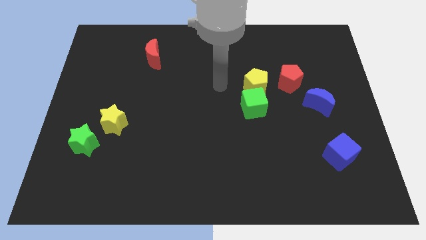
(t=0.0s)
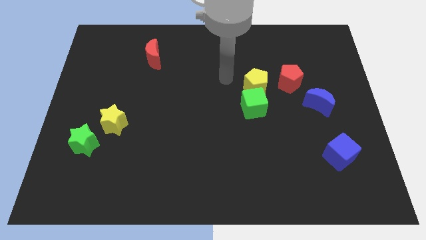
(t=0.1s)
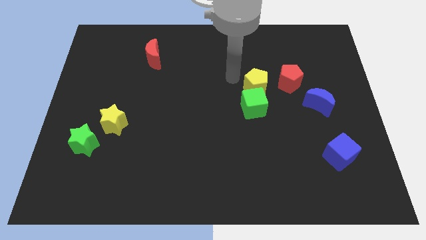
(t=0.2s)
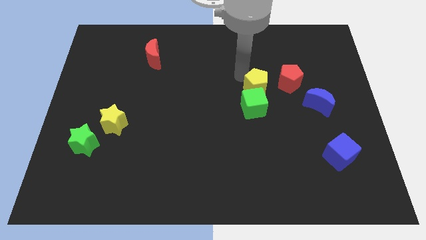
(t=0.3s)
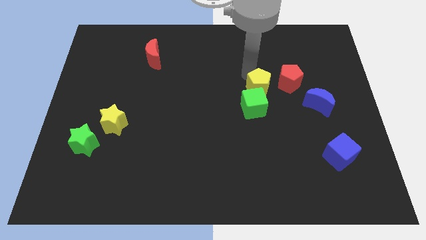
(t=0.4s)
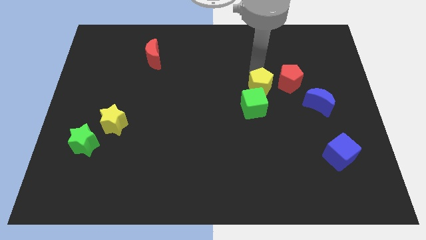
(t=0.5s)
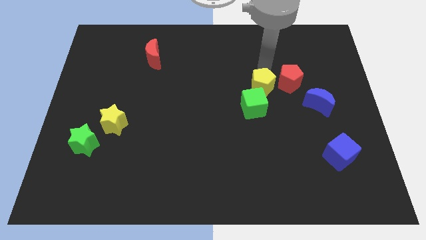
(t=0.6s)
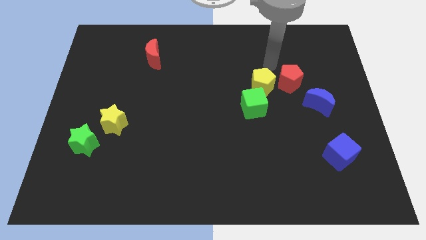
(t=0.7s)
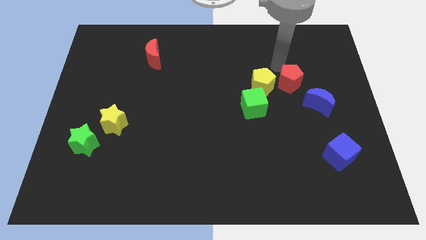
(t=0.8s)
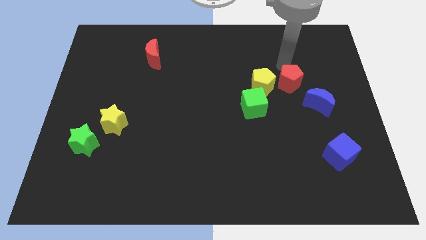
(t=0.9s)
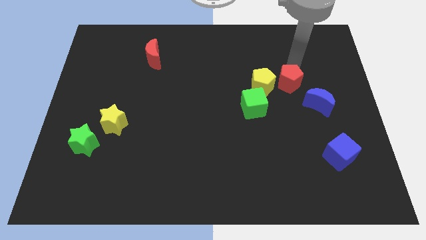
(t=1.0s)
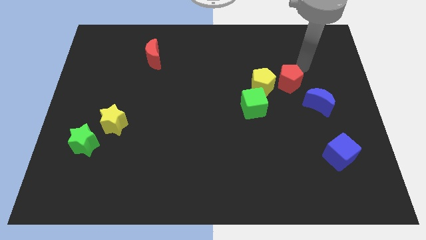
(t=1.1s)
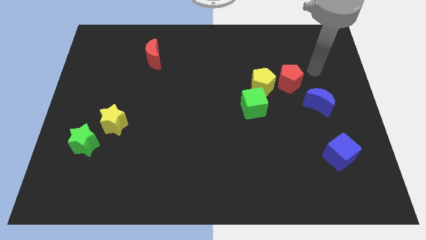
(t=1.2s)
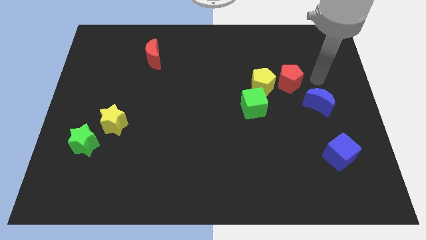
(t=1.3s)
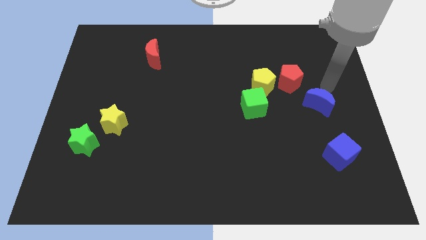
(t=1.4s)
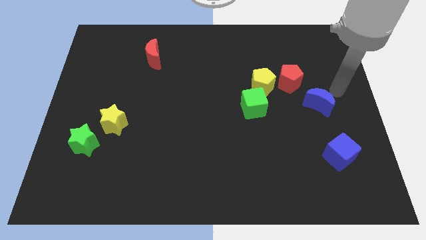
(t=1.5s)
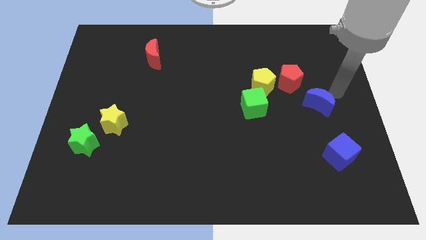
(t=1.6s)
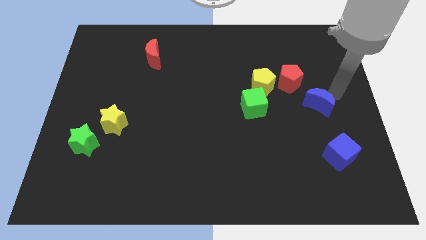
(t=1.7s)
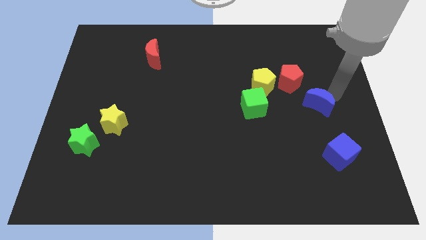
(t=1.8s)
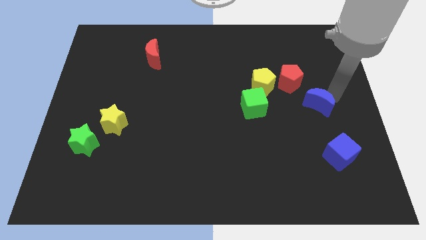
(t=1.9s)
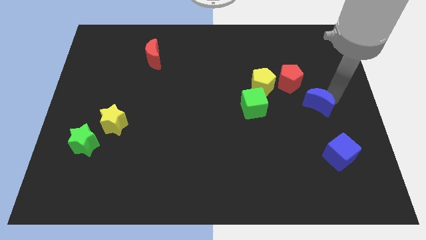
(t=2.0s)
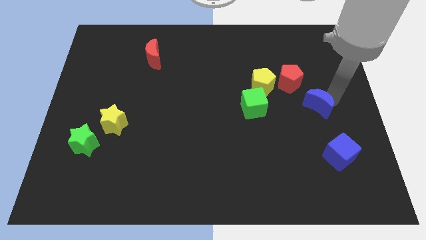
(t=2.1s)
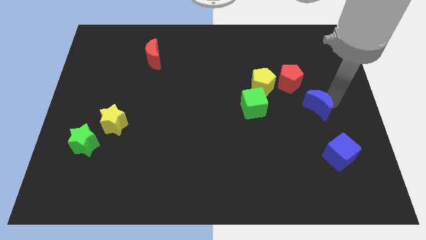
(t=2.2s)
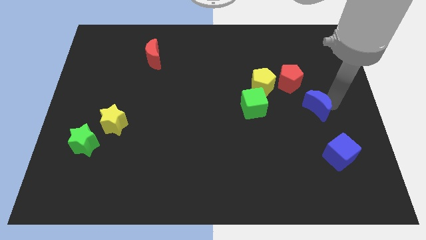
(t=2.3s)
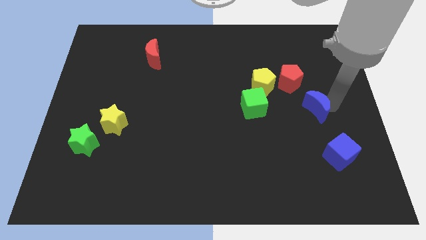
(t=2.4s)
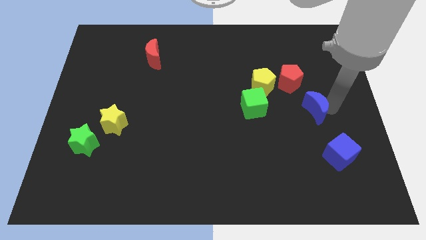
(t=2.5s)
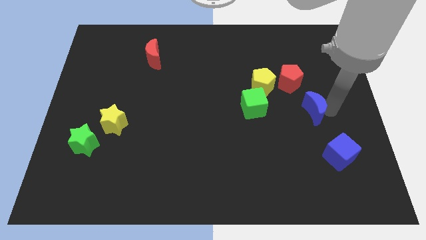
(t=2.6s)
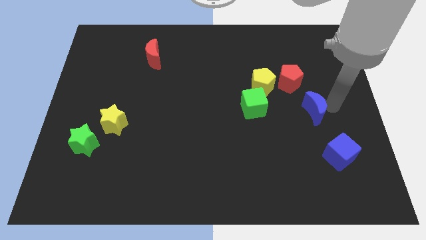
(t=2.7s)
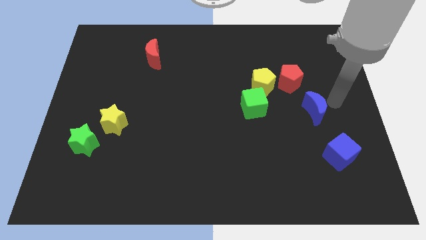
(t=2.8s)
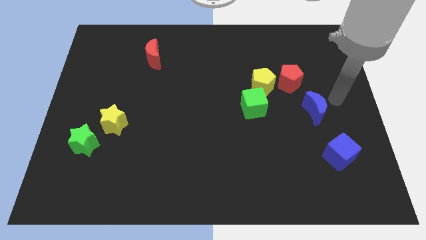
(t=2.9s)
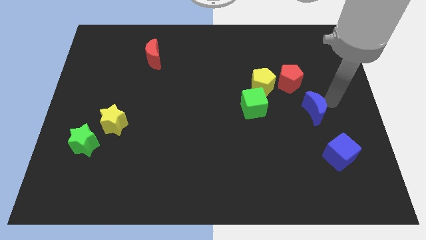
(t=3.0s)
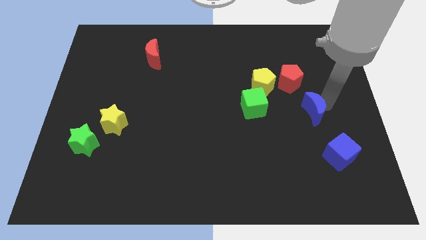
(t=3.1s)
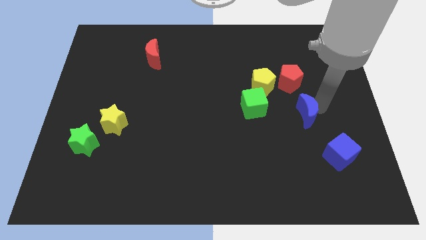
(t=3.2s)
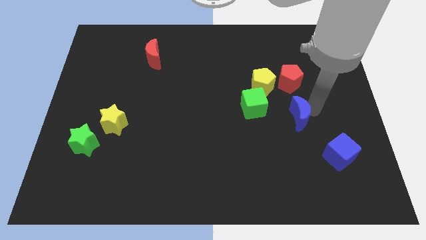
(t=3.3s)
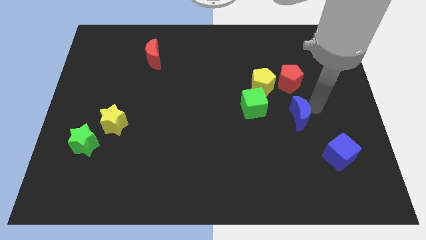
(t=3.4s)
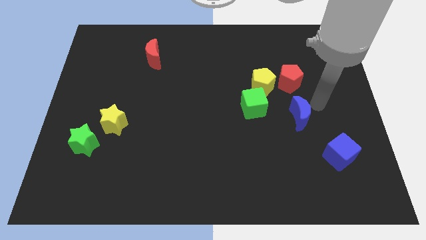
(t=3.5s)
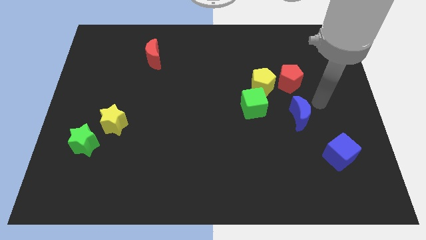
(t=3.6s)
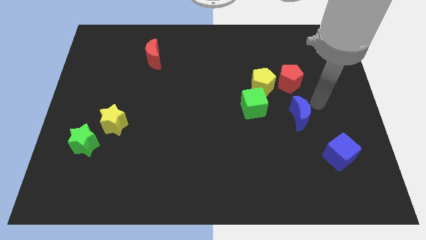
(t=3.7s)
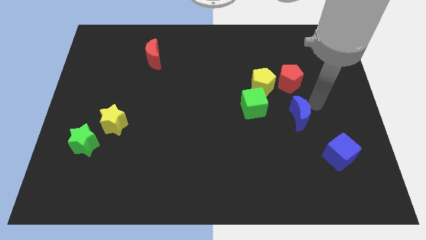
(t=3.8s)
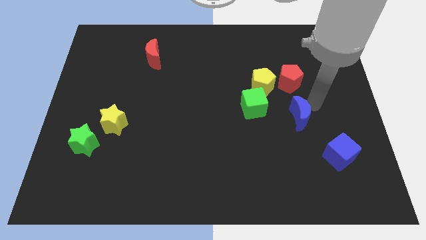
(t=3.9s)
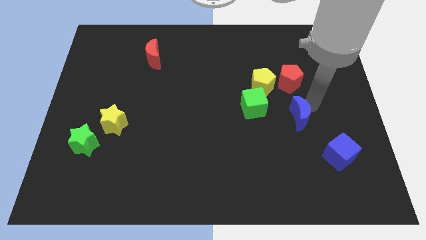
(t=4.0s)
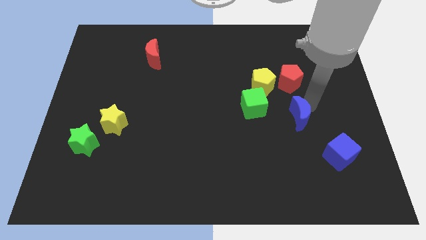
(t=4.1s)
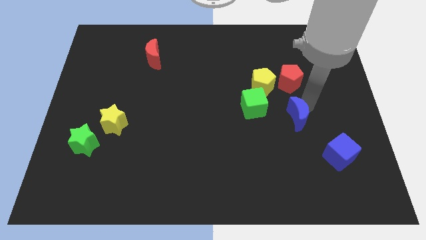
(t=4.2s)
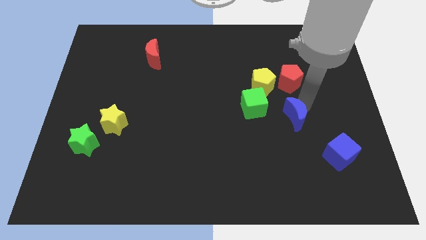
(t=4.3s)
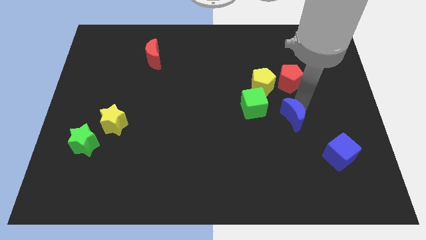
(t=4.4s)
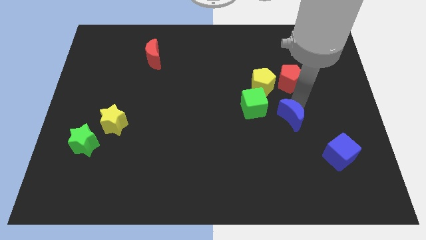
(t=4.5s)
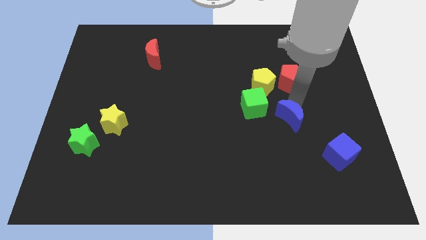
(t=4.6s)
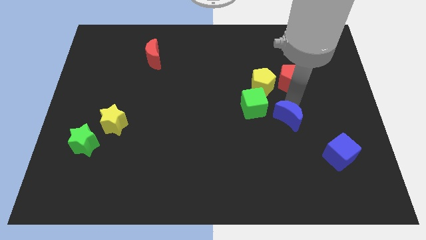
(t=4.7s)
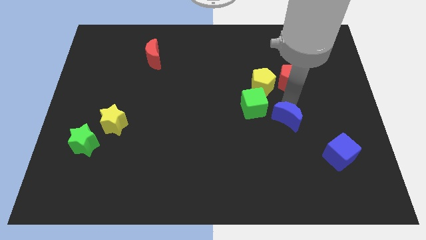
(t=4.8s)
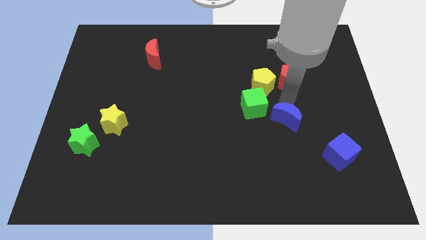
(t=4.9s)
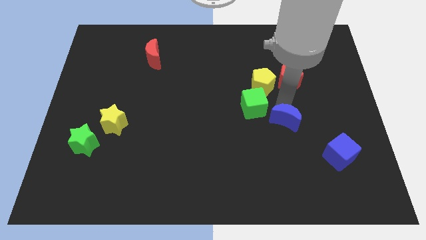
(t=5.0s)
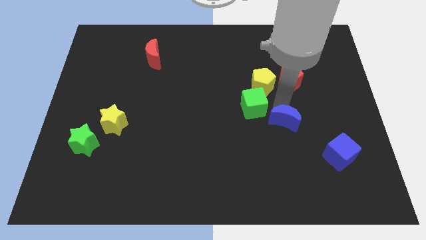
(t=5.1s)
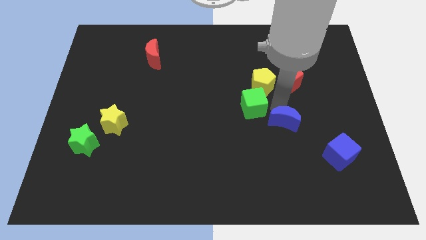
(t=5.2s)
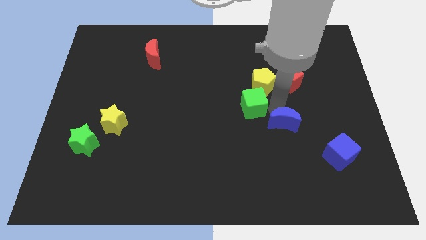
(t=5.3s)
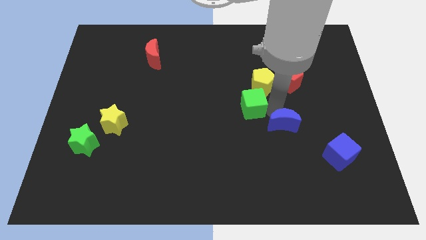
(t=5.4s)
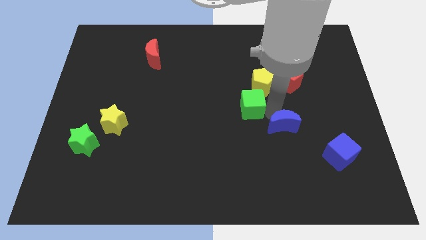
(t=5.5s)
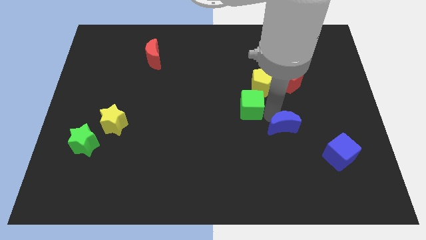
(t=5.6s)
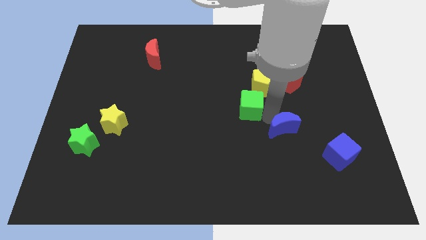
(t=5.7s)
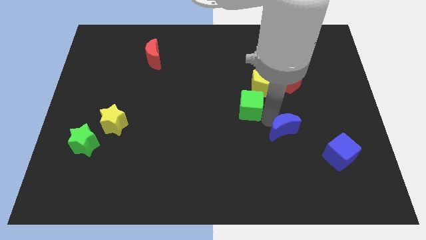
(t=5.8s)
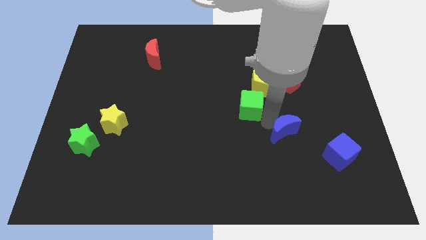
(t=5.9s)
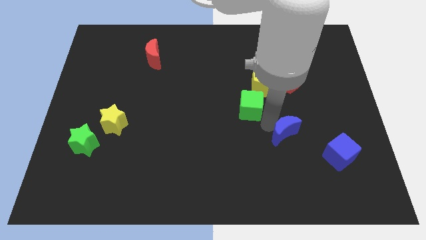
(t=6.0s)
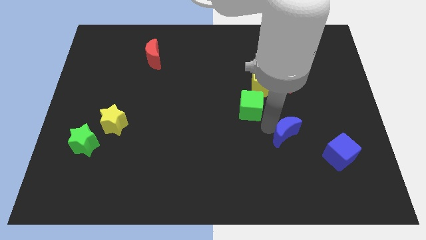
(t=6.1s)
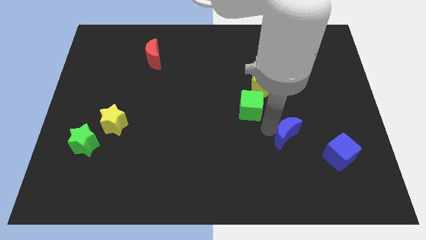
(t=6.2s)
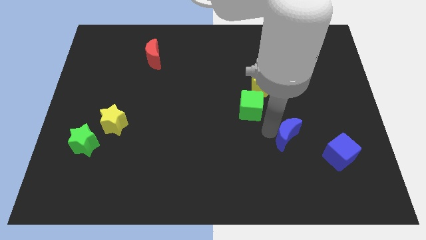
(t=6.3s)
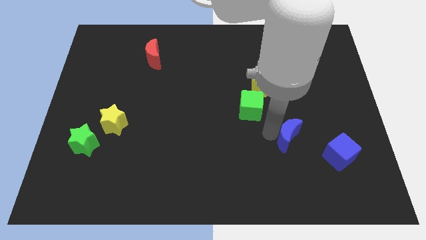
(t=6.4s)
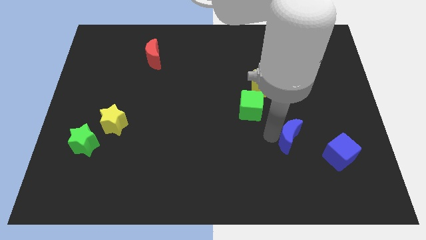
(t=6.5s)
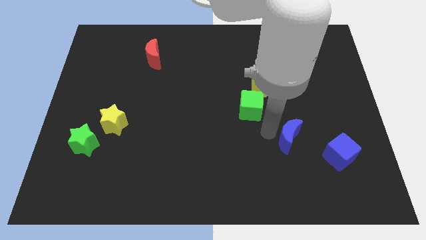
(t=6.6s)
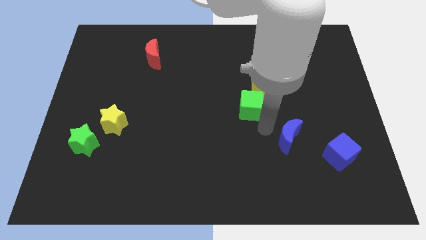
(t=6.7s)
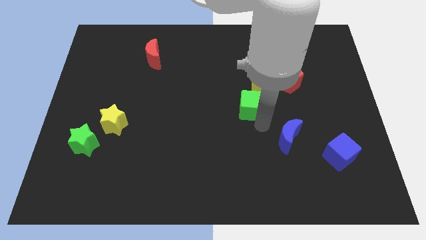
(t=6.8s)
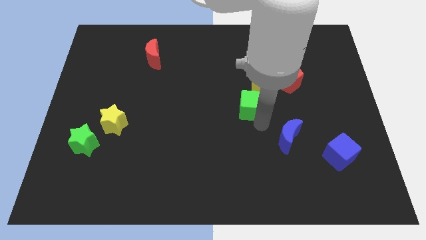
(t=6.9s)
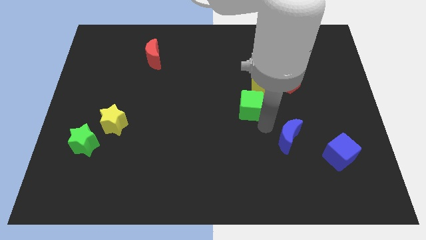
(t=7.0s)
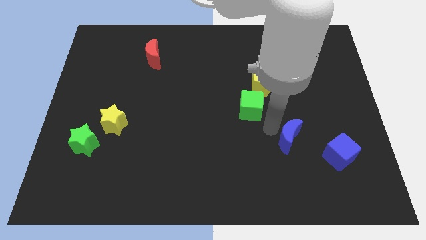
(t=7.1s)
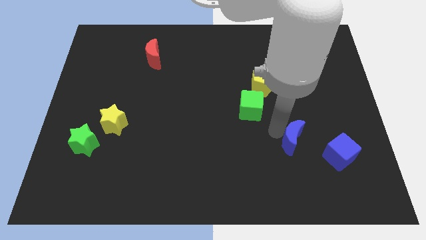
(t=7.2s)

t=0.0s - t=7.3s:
push the blue moon down a little bit

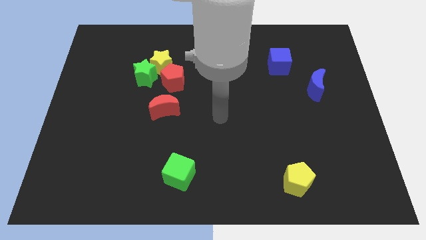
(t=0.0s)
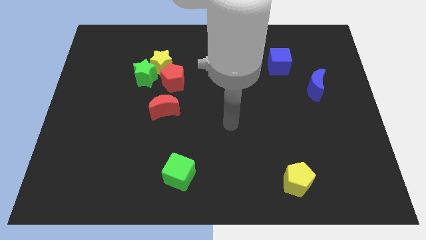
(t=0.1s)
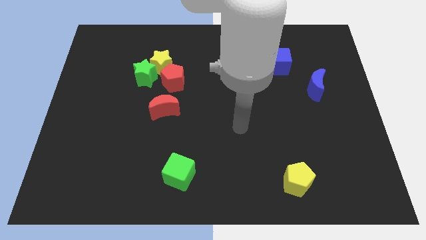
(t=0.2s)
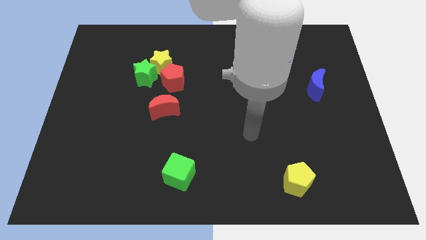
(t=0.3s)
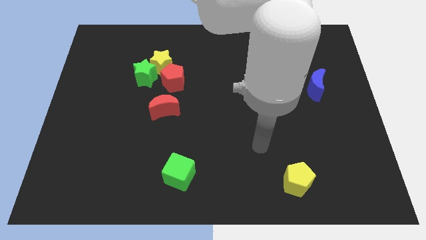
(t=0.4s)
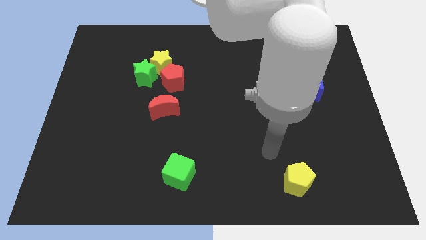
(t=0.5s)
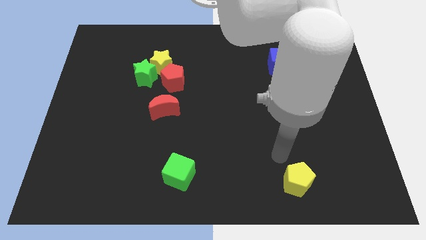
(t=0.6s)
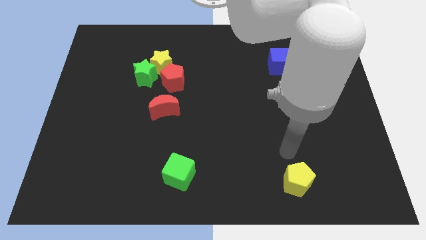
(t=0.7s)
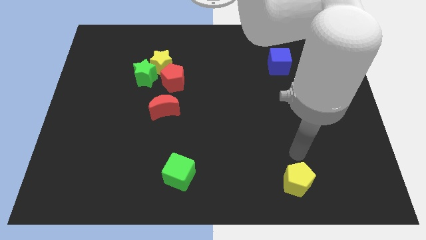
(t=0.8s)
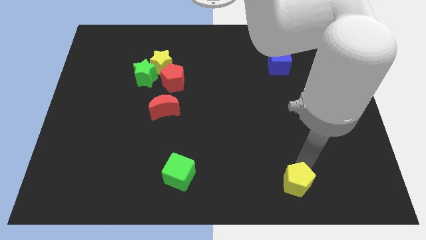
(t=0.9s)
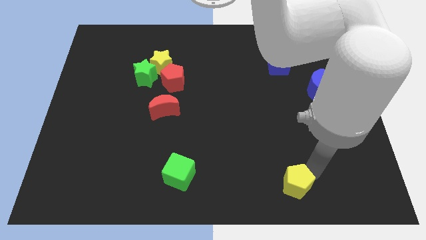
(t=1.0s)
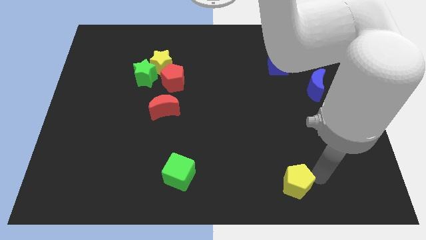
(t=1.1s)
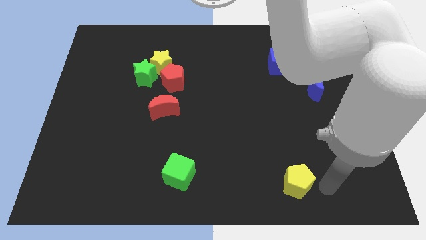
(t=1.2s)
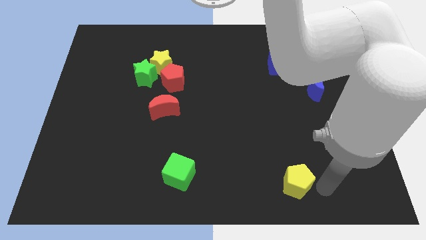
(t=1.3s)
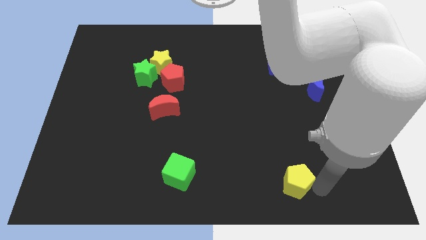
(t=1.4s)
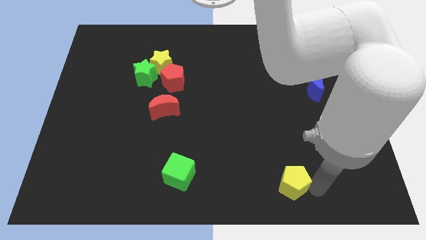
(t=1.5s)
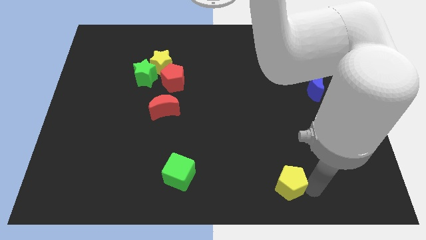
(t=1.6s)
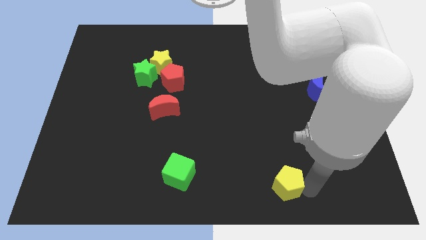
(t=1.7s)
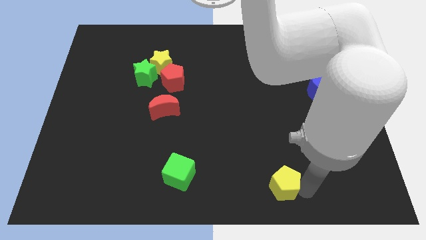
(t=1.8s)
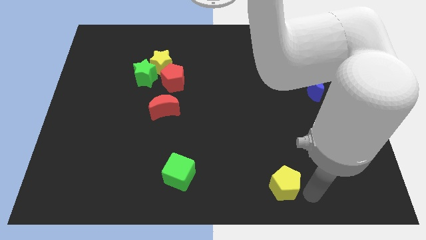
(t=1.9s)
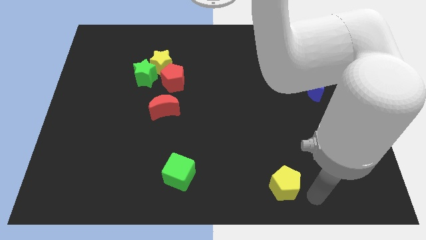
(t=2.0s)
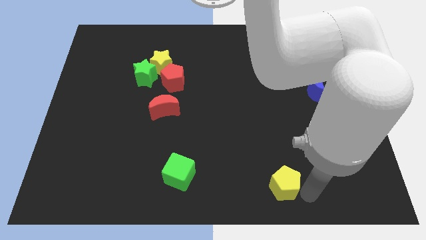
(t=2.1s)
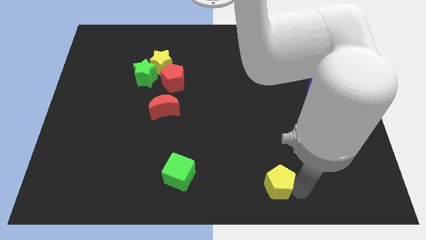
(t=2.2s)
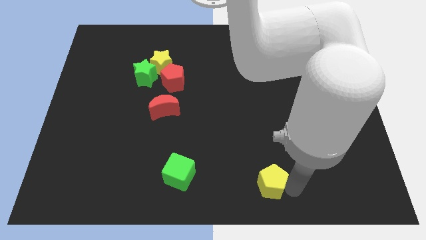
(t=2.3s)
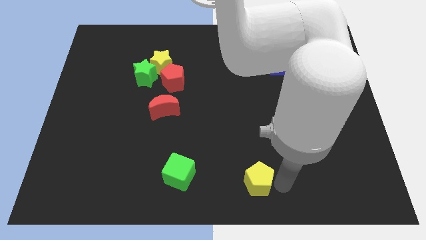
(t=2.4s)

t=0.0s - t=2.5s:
slide the yellow pentagon a little left
